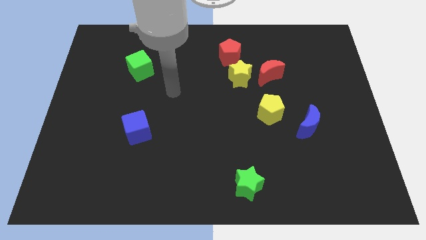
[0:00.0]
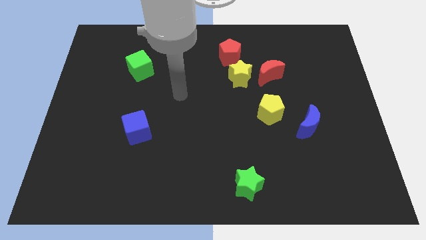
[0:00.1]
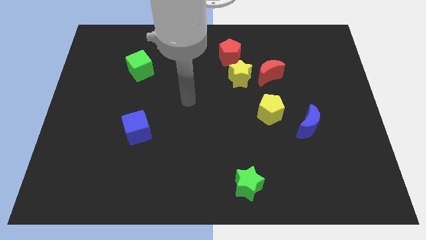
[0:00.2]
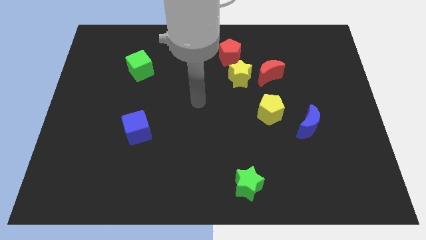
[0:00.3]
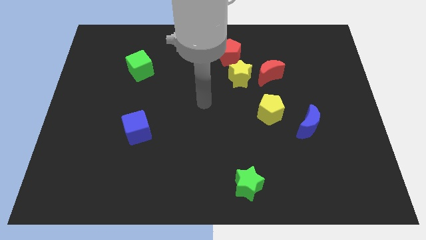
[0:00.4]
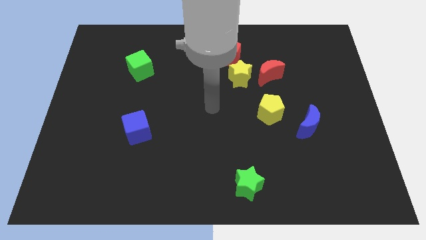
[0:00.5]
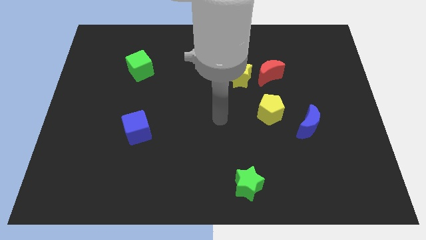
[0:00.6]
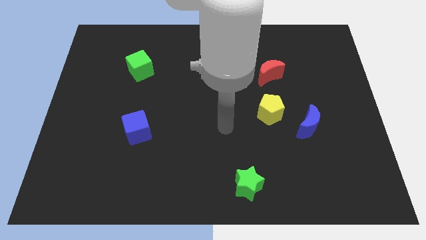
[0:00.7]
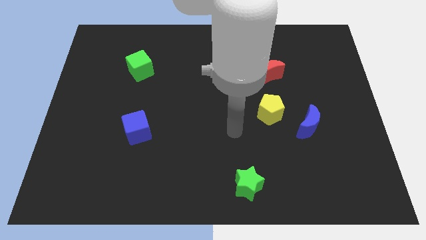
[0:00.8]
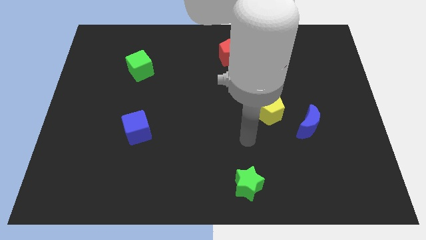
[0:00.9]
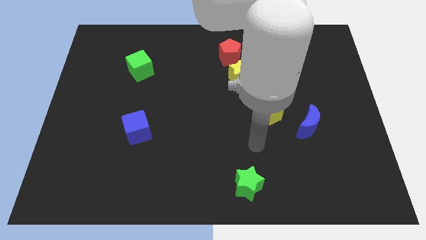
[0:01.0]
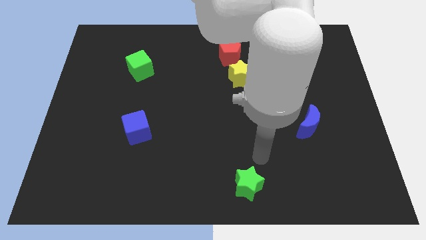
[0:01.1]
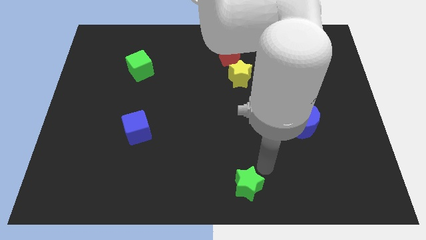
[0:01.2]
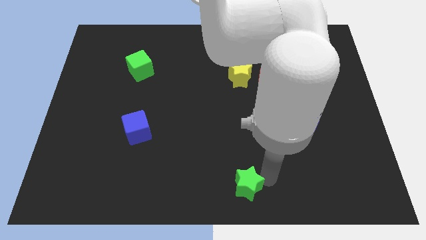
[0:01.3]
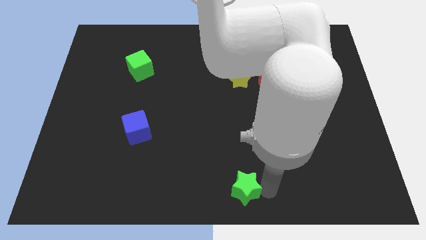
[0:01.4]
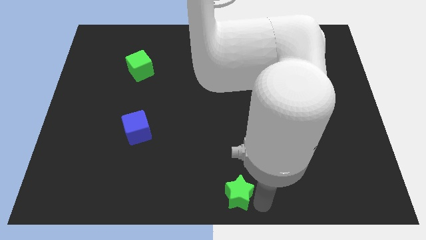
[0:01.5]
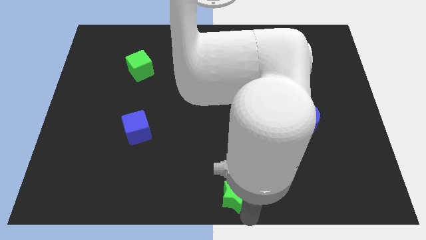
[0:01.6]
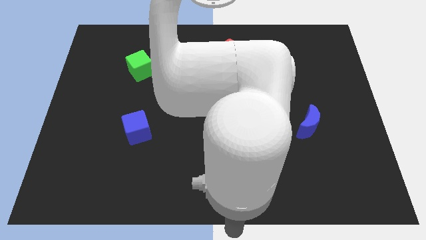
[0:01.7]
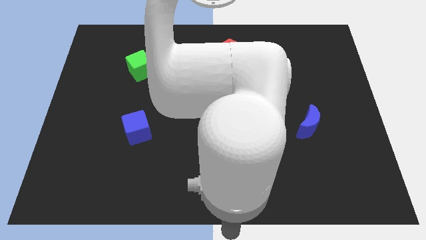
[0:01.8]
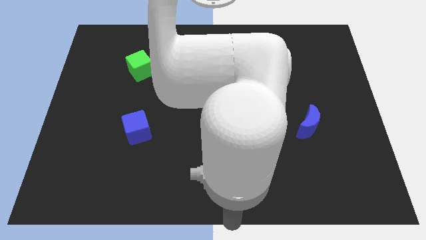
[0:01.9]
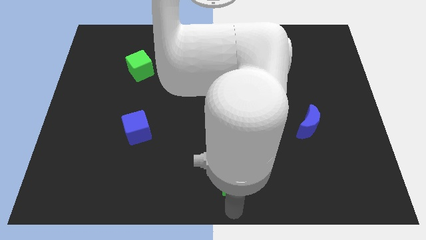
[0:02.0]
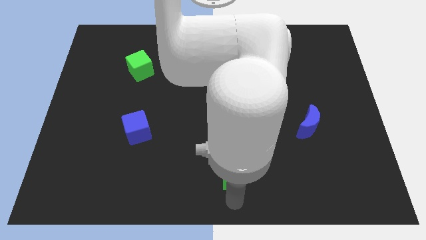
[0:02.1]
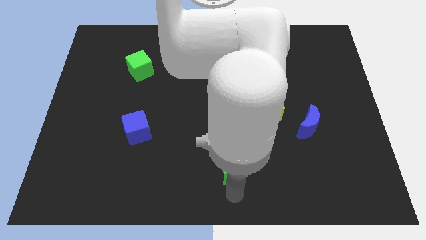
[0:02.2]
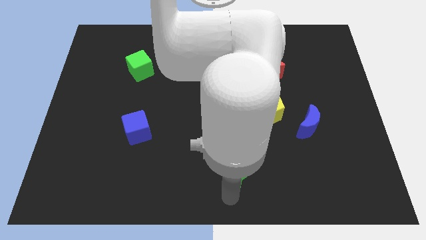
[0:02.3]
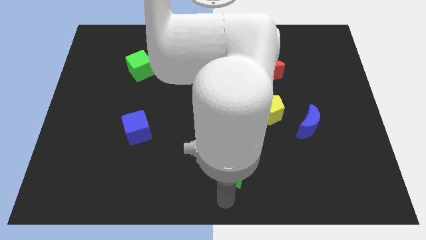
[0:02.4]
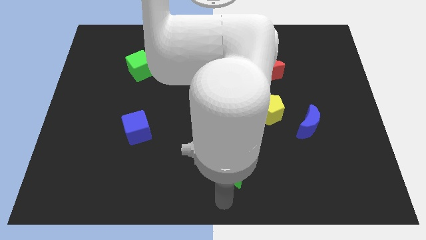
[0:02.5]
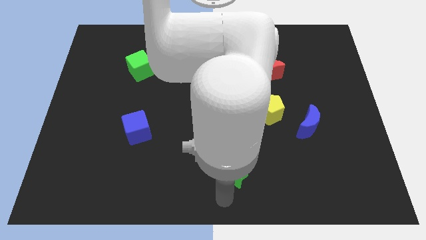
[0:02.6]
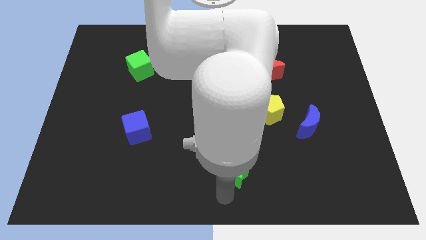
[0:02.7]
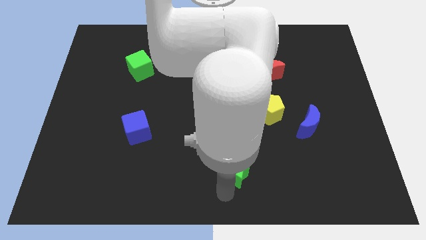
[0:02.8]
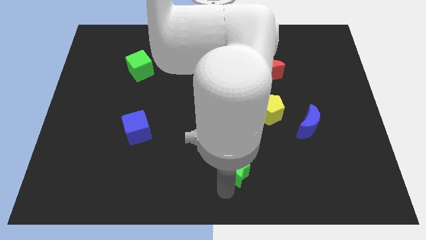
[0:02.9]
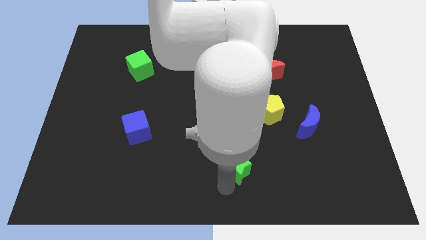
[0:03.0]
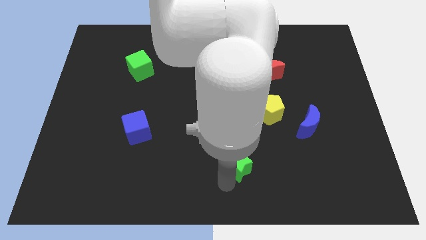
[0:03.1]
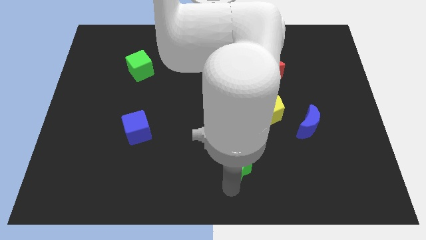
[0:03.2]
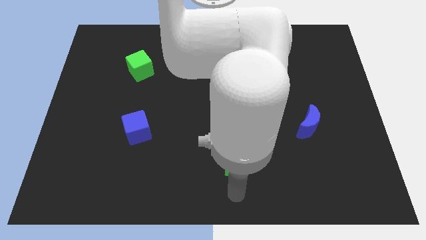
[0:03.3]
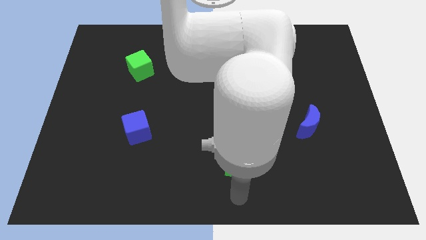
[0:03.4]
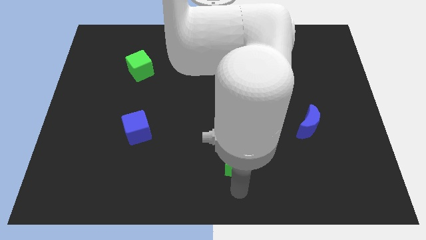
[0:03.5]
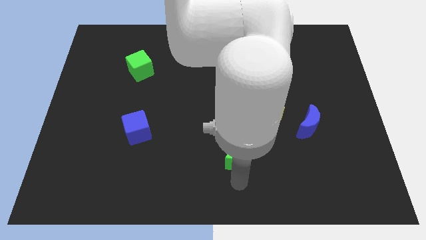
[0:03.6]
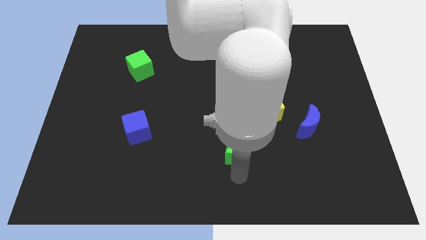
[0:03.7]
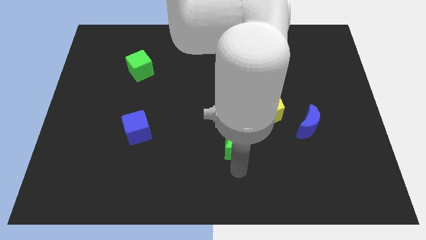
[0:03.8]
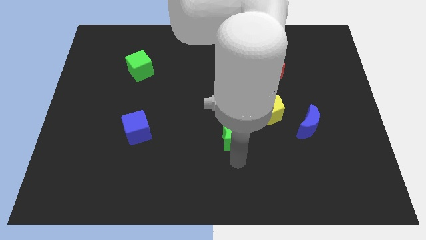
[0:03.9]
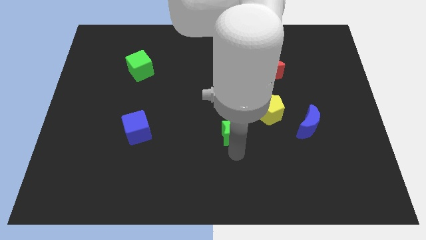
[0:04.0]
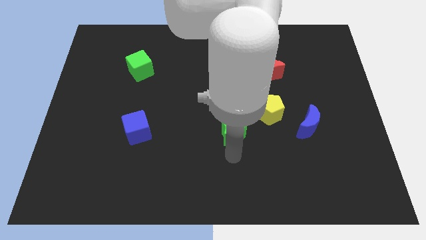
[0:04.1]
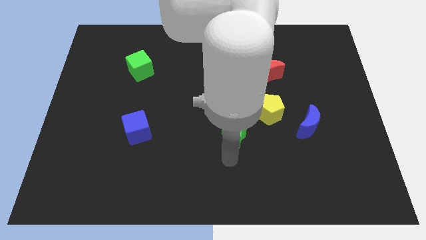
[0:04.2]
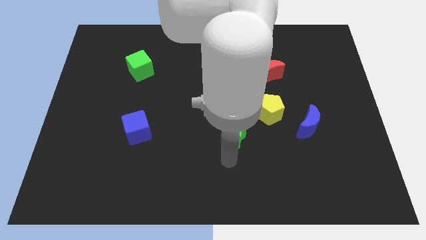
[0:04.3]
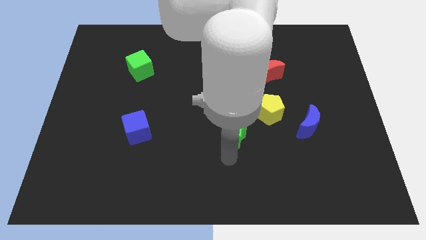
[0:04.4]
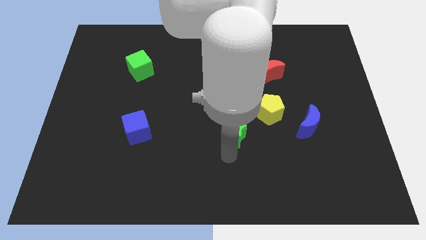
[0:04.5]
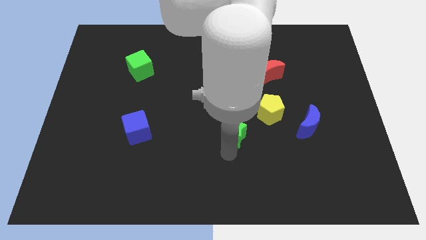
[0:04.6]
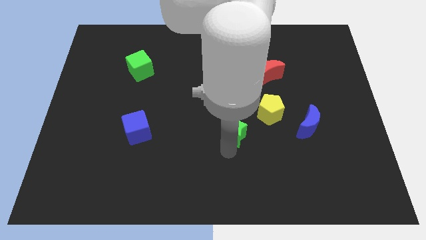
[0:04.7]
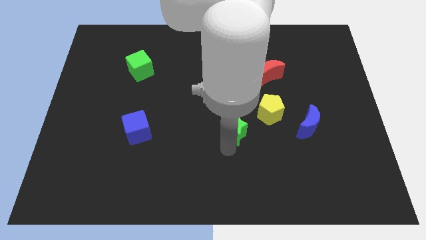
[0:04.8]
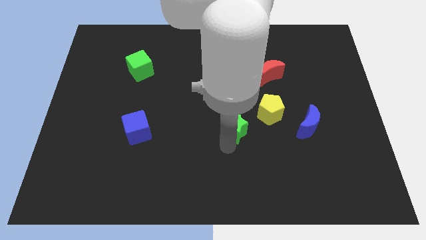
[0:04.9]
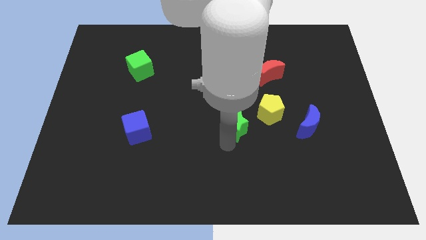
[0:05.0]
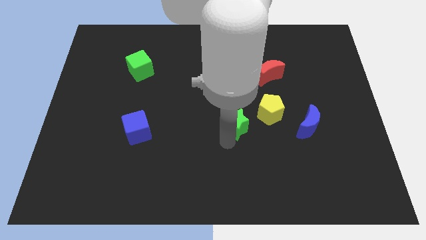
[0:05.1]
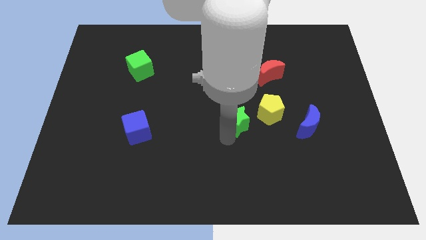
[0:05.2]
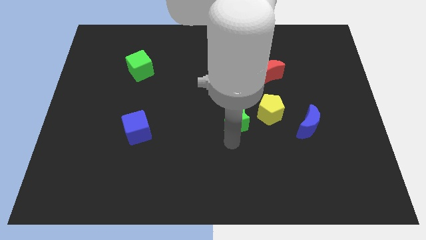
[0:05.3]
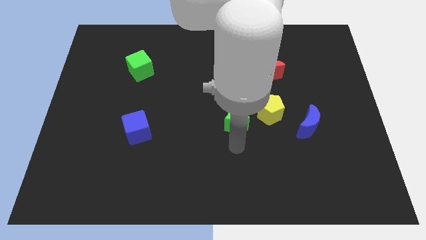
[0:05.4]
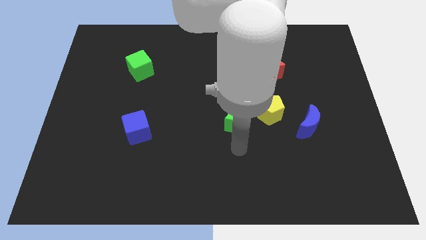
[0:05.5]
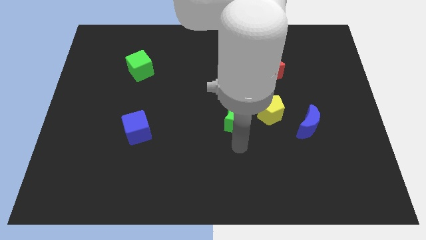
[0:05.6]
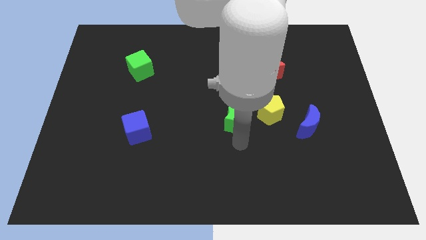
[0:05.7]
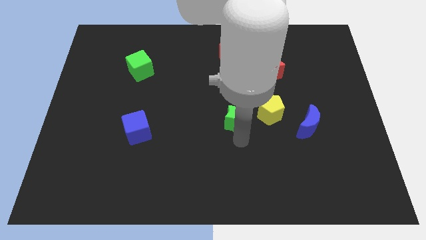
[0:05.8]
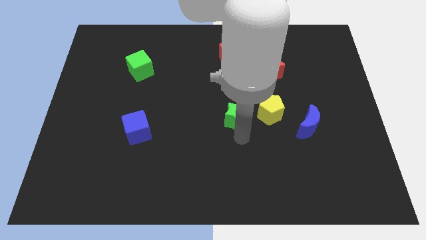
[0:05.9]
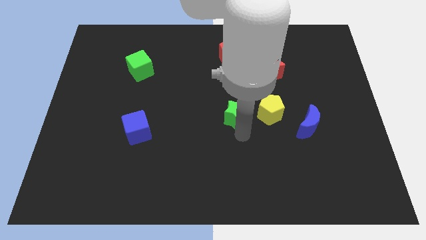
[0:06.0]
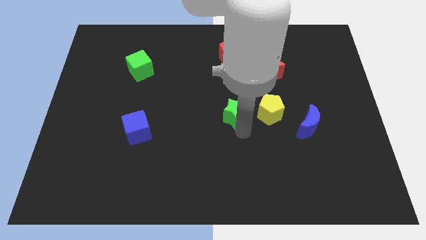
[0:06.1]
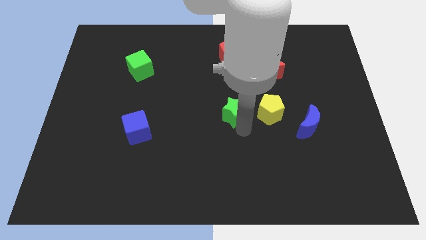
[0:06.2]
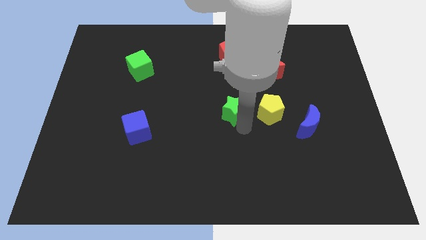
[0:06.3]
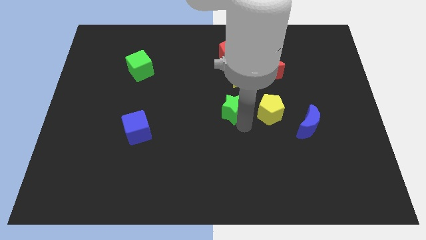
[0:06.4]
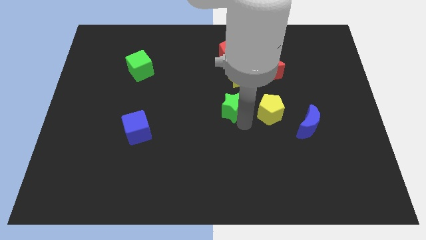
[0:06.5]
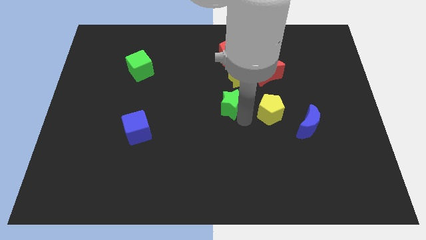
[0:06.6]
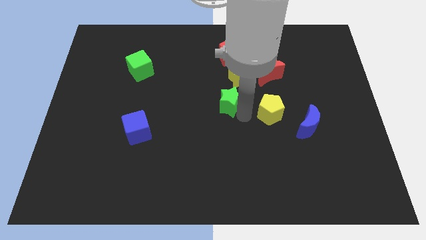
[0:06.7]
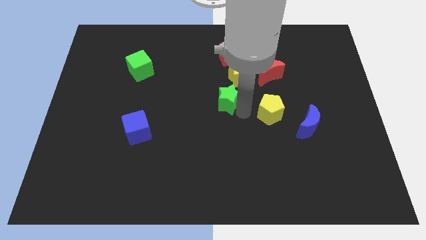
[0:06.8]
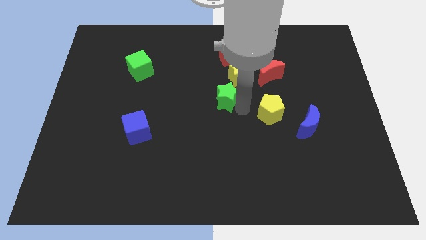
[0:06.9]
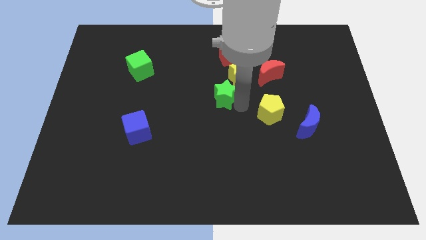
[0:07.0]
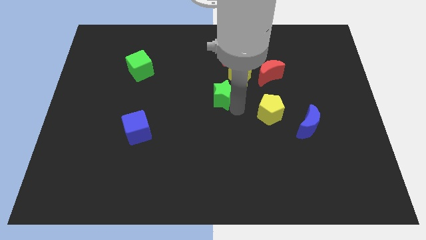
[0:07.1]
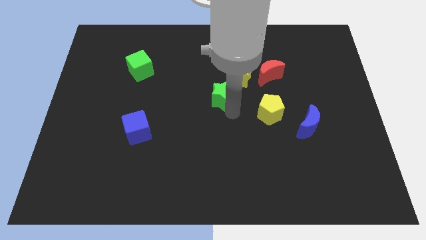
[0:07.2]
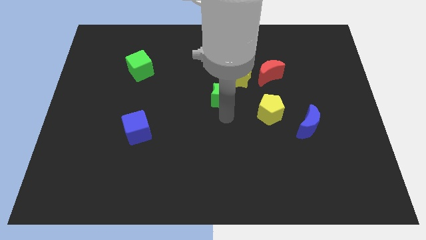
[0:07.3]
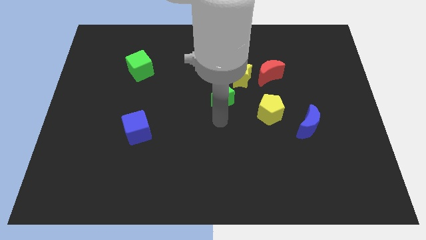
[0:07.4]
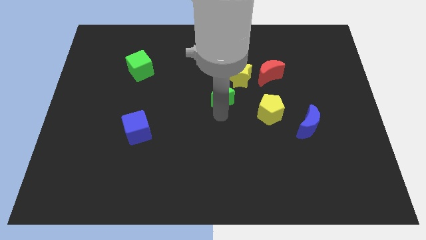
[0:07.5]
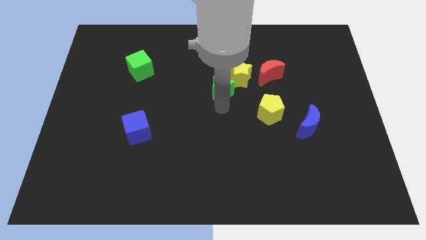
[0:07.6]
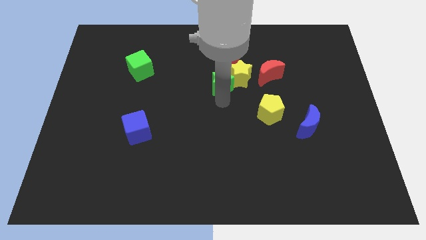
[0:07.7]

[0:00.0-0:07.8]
move the green star left of the red moon
